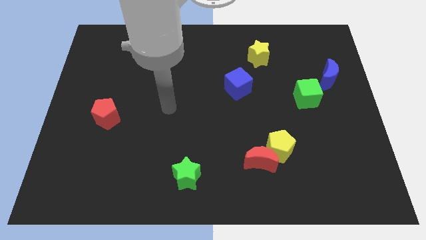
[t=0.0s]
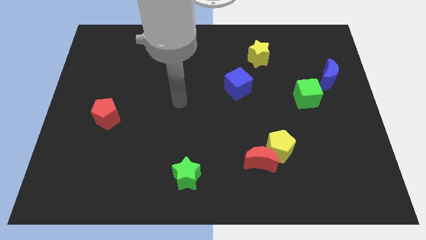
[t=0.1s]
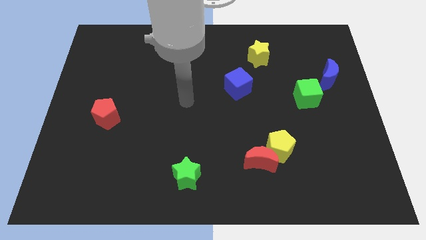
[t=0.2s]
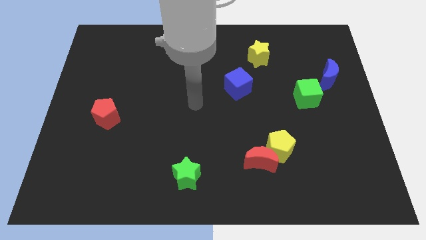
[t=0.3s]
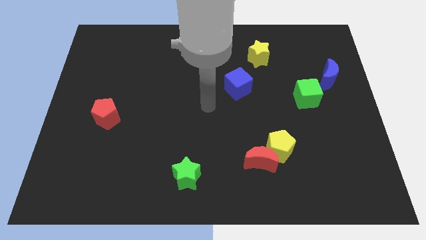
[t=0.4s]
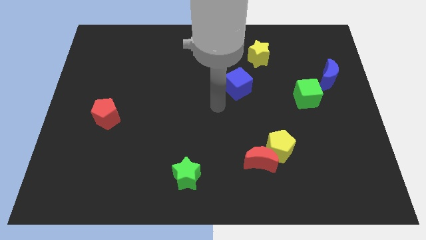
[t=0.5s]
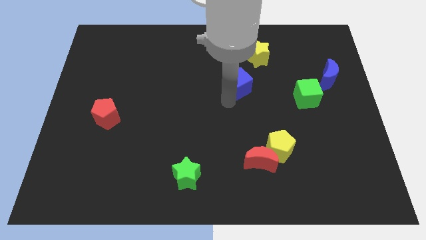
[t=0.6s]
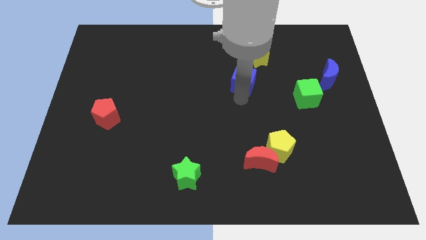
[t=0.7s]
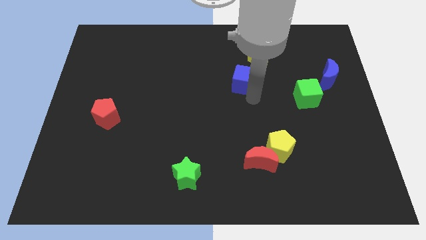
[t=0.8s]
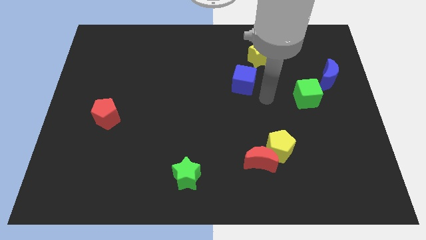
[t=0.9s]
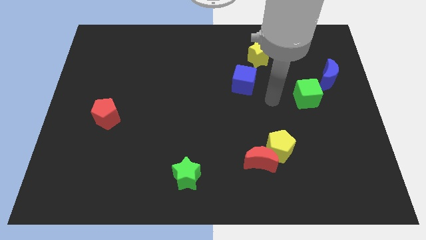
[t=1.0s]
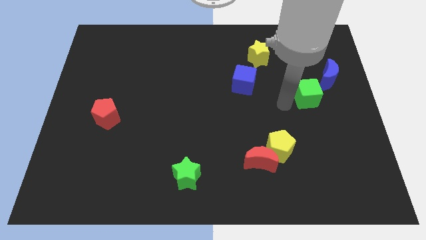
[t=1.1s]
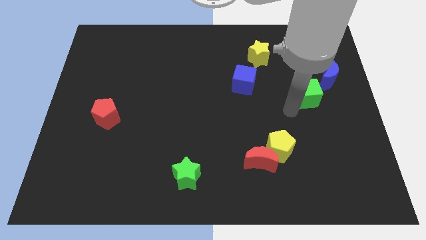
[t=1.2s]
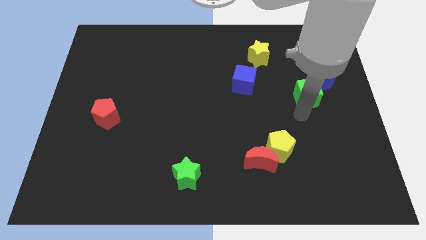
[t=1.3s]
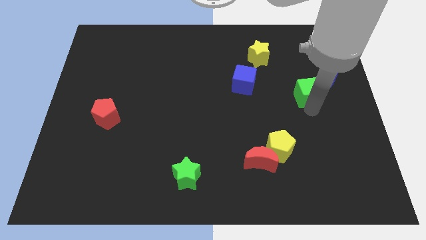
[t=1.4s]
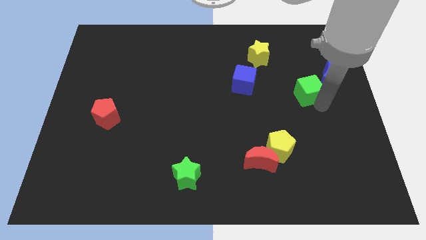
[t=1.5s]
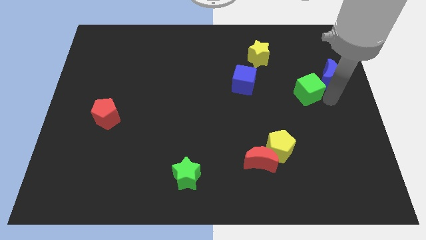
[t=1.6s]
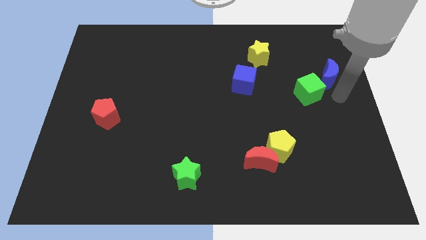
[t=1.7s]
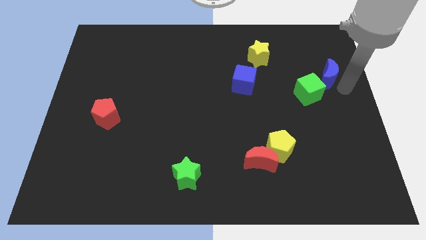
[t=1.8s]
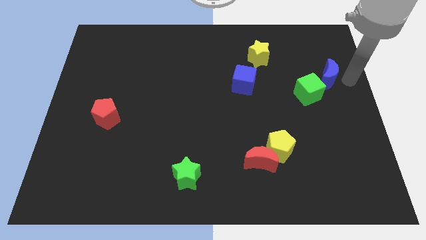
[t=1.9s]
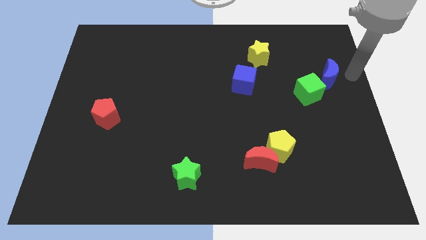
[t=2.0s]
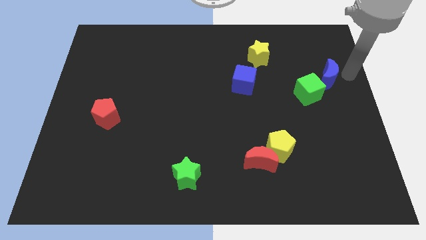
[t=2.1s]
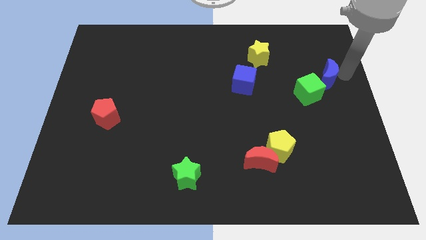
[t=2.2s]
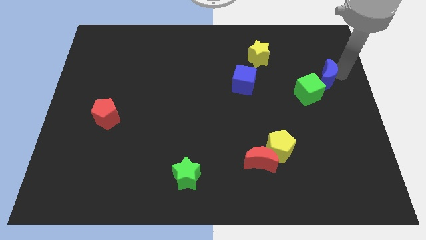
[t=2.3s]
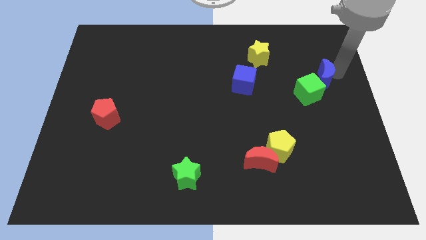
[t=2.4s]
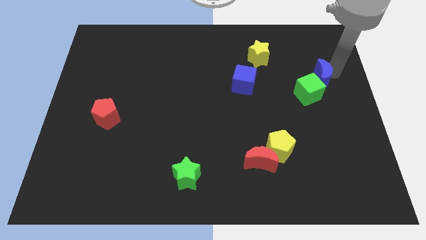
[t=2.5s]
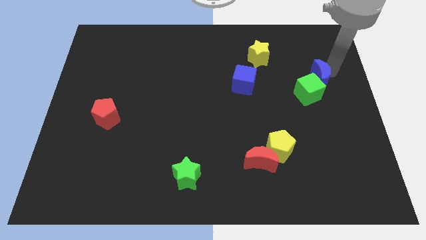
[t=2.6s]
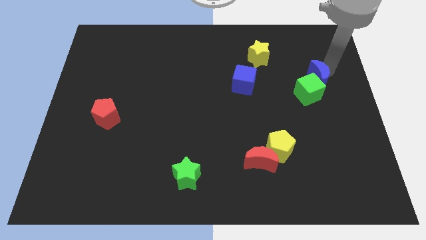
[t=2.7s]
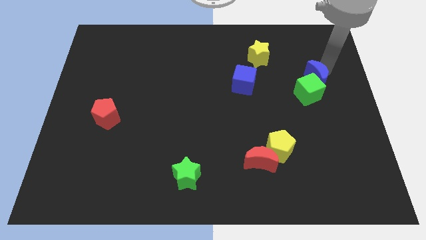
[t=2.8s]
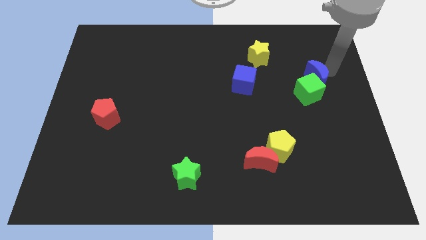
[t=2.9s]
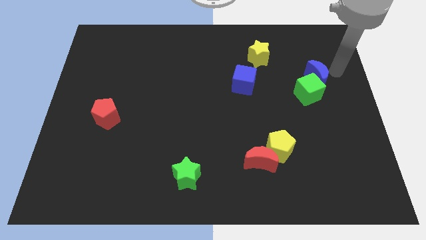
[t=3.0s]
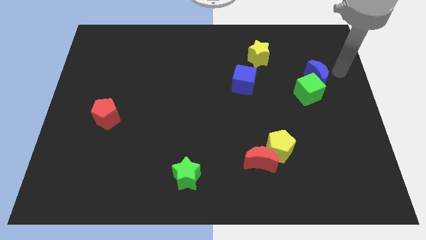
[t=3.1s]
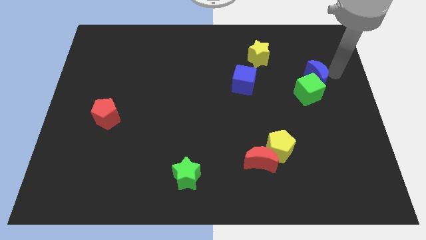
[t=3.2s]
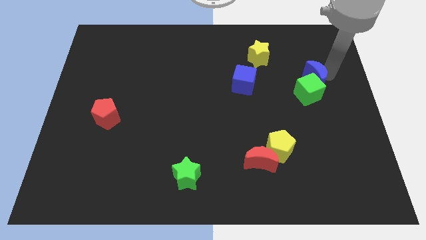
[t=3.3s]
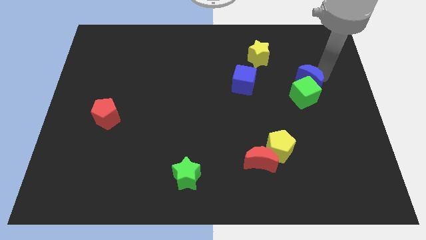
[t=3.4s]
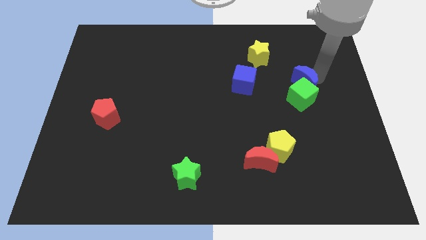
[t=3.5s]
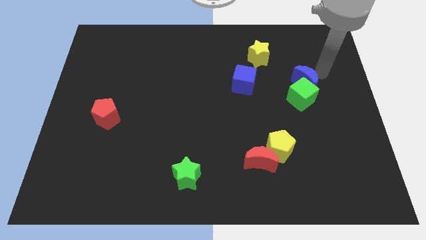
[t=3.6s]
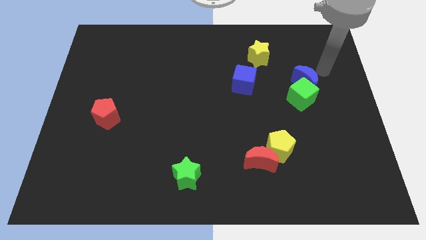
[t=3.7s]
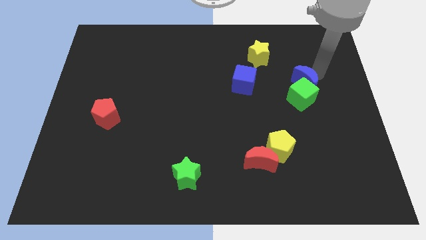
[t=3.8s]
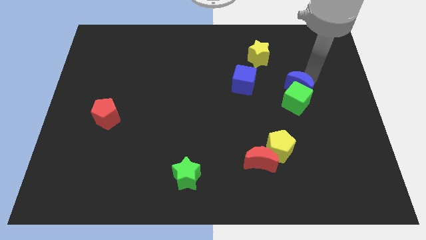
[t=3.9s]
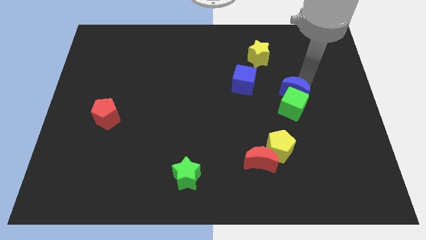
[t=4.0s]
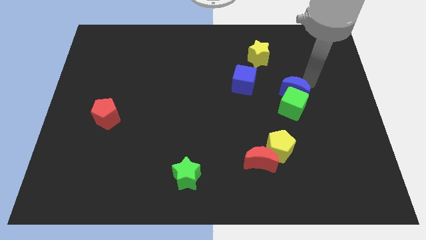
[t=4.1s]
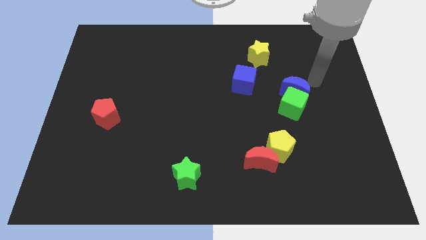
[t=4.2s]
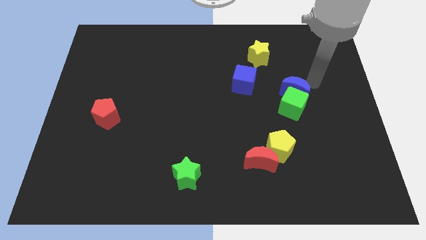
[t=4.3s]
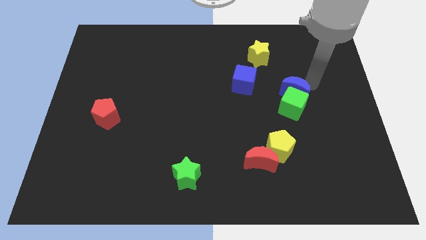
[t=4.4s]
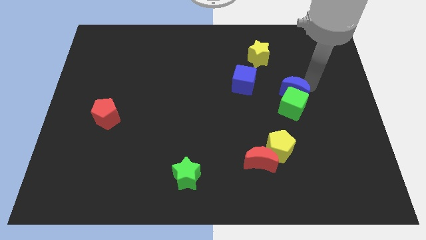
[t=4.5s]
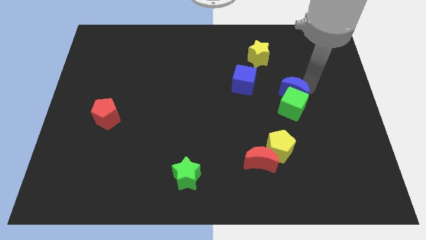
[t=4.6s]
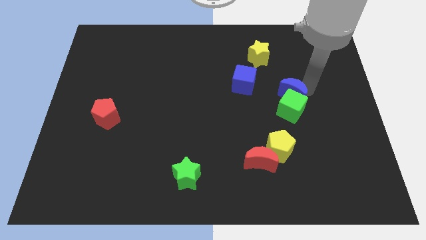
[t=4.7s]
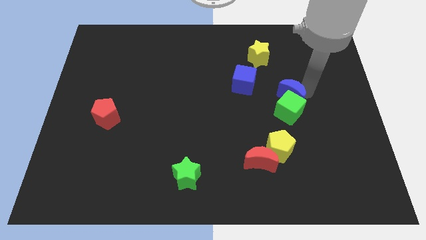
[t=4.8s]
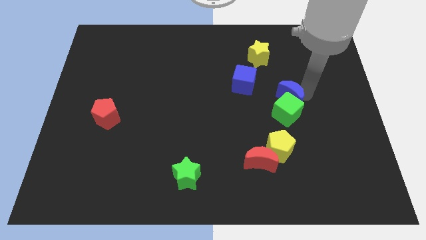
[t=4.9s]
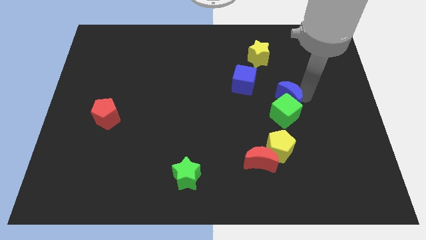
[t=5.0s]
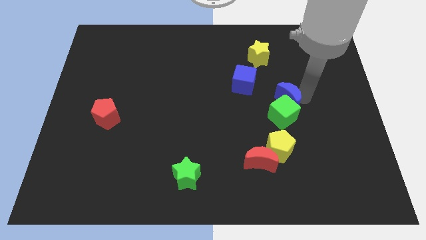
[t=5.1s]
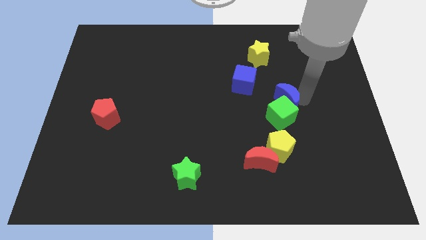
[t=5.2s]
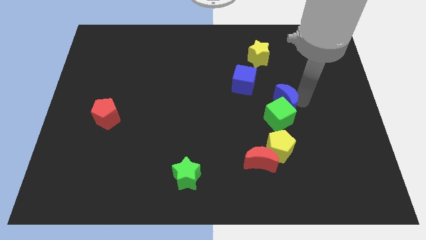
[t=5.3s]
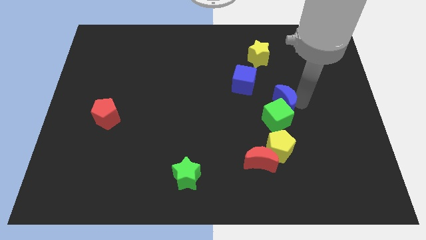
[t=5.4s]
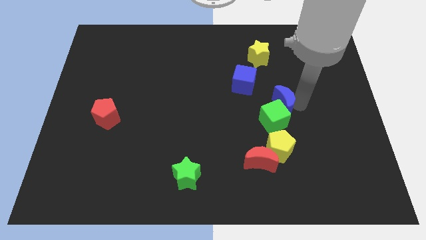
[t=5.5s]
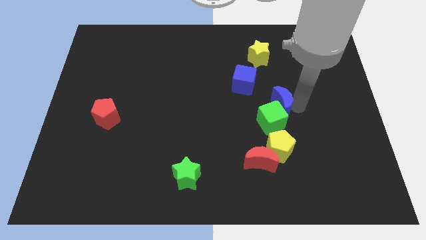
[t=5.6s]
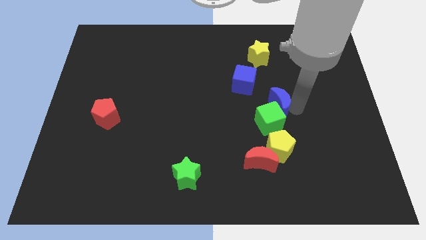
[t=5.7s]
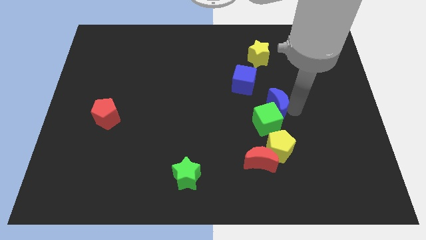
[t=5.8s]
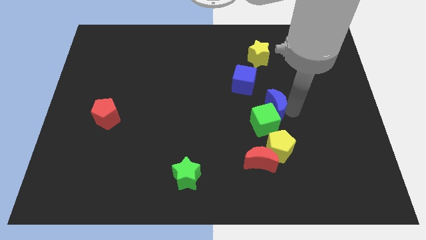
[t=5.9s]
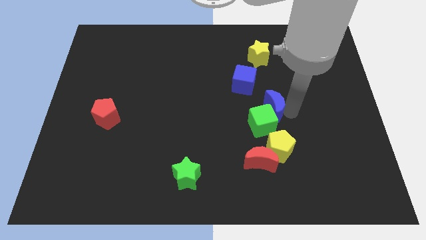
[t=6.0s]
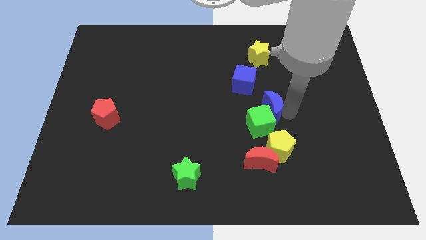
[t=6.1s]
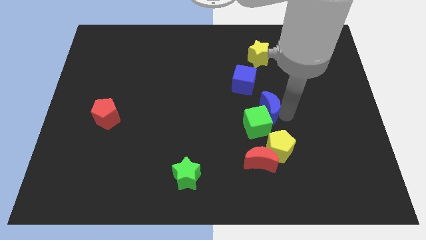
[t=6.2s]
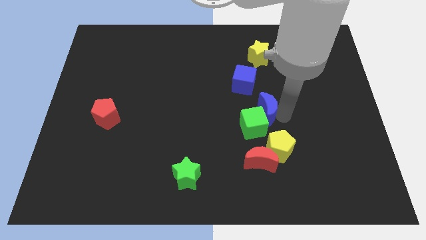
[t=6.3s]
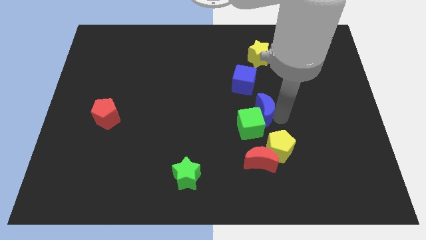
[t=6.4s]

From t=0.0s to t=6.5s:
push the blue moon to the center of the board

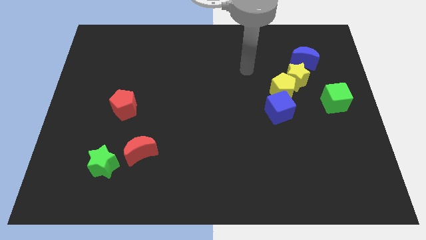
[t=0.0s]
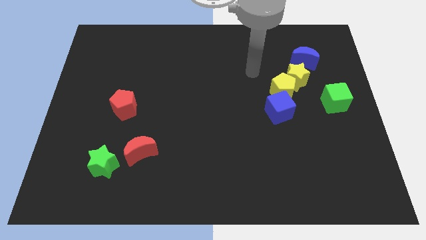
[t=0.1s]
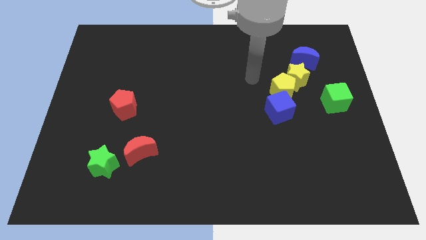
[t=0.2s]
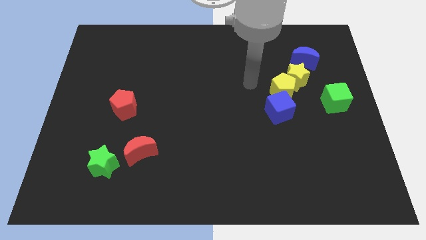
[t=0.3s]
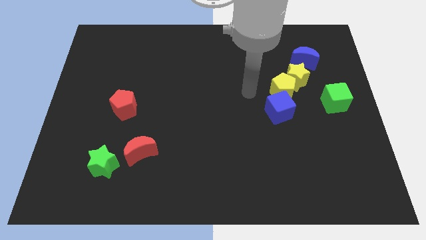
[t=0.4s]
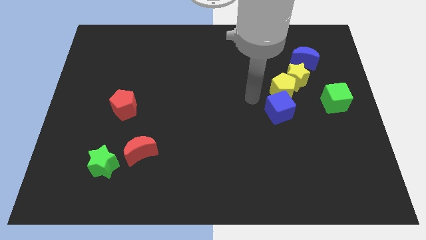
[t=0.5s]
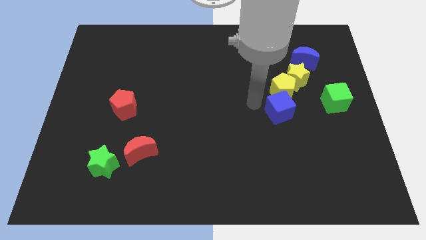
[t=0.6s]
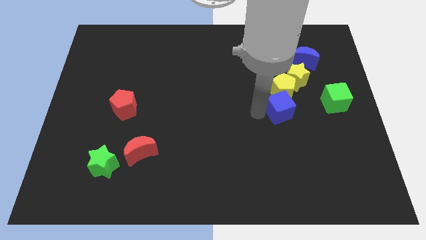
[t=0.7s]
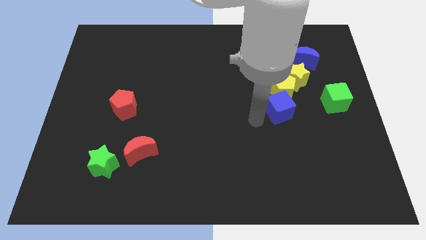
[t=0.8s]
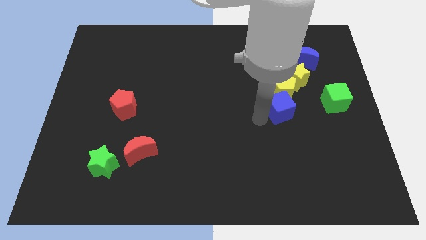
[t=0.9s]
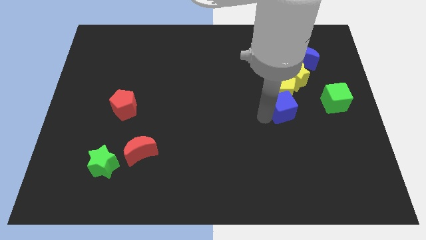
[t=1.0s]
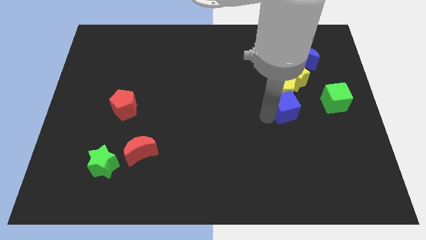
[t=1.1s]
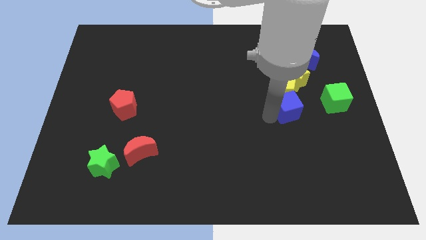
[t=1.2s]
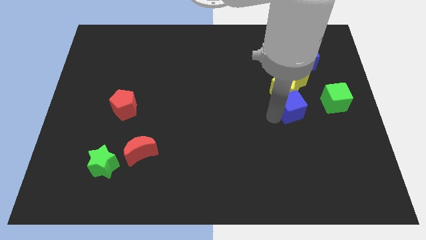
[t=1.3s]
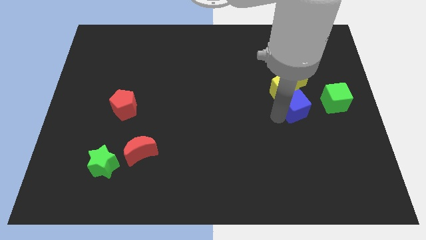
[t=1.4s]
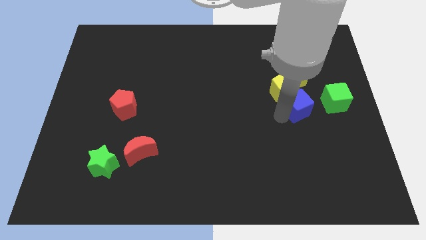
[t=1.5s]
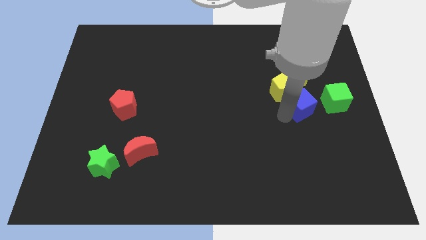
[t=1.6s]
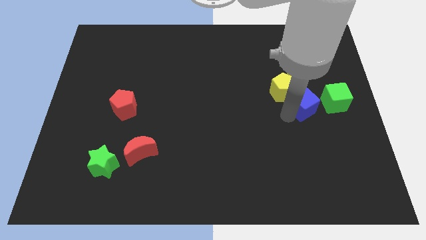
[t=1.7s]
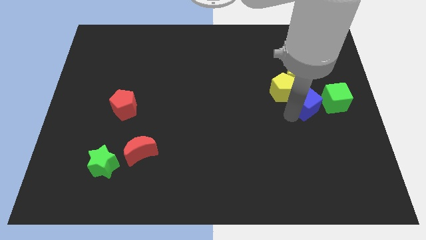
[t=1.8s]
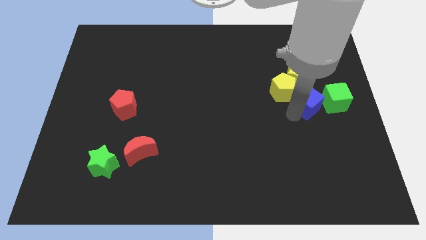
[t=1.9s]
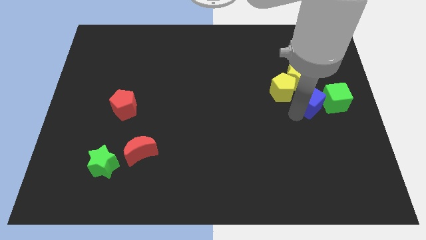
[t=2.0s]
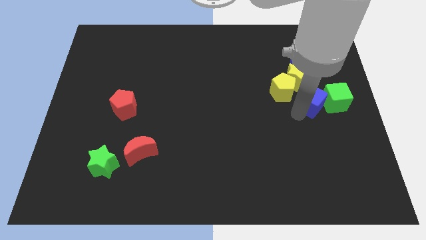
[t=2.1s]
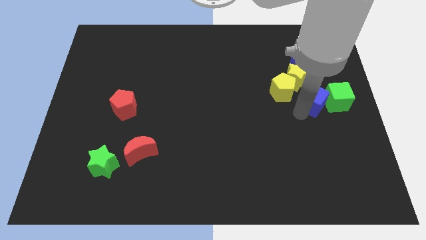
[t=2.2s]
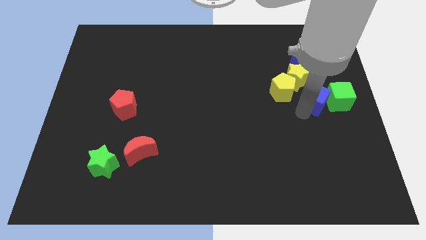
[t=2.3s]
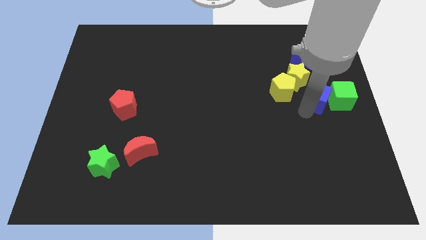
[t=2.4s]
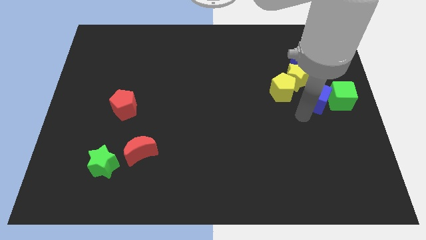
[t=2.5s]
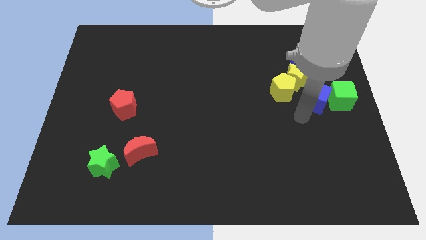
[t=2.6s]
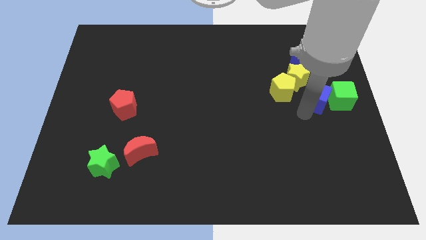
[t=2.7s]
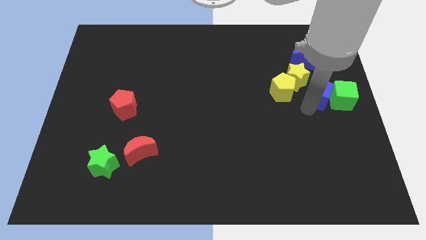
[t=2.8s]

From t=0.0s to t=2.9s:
move the blue cube to the right side
